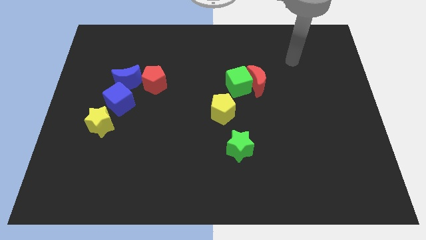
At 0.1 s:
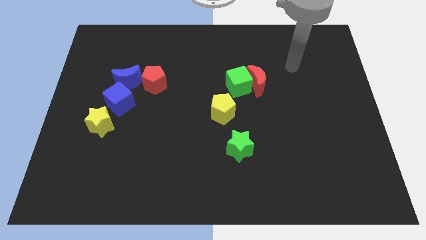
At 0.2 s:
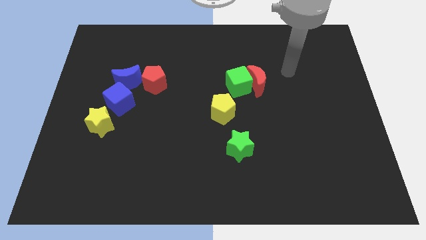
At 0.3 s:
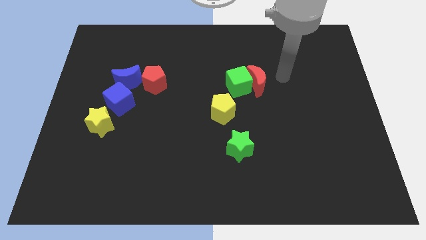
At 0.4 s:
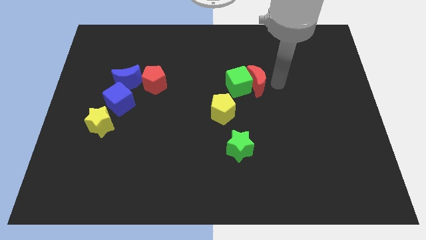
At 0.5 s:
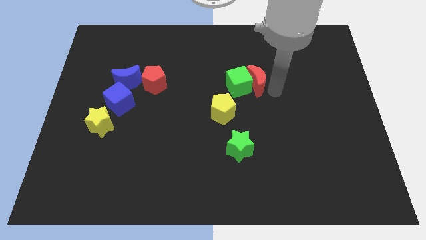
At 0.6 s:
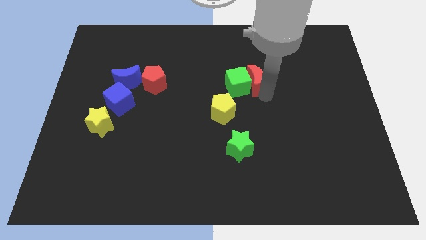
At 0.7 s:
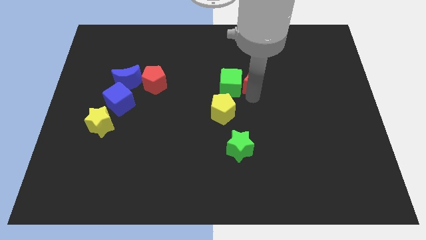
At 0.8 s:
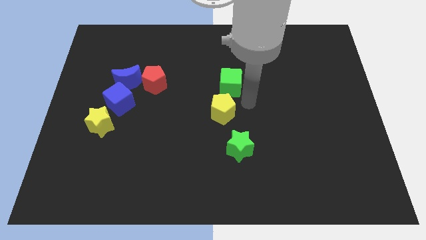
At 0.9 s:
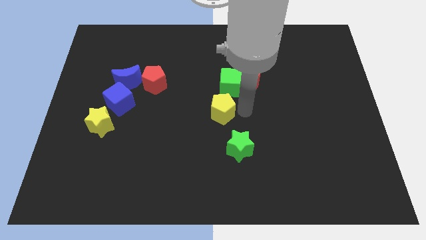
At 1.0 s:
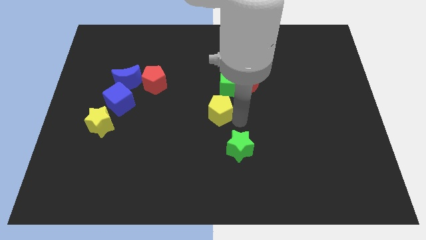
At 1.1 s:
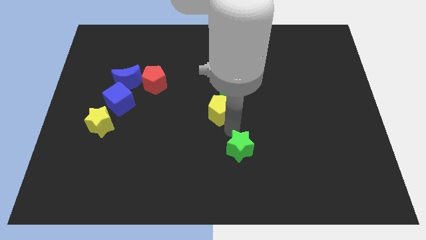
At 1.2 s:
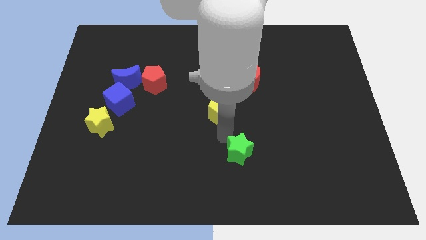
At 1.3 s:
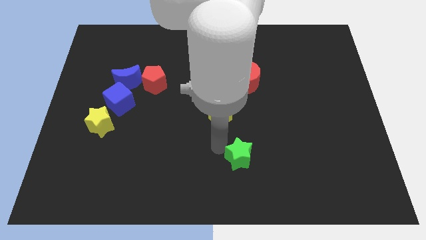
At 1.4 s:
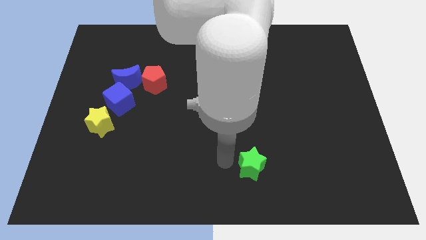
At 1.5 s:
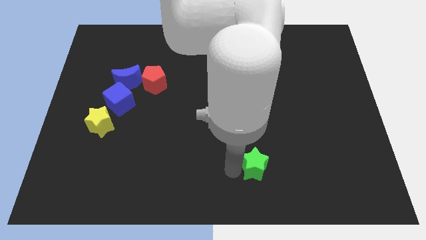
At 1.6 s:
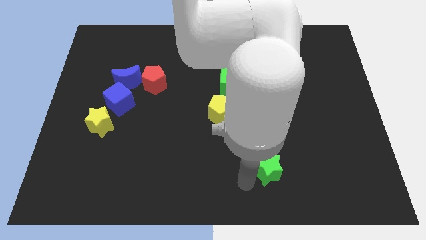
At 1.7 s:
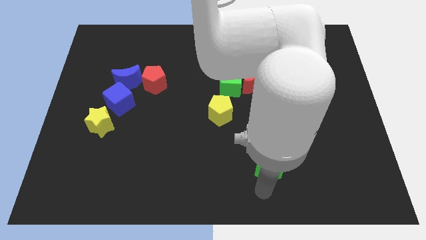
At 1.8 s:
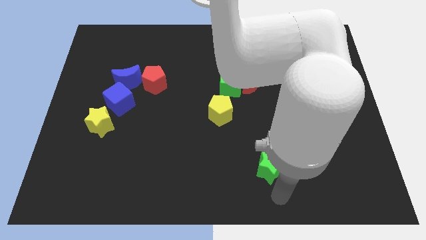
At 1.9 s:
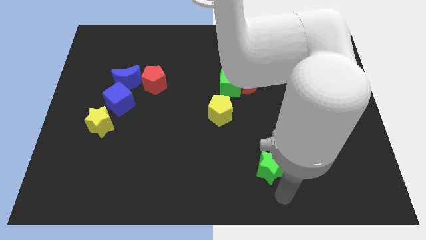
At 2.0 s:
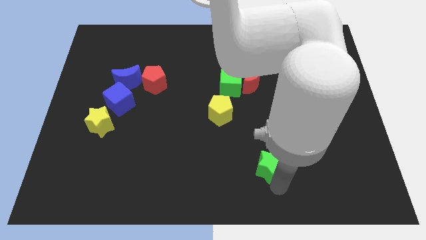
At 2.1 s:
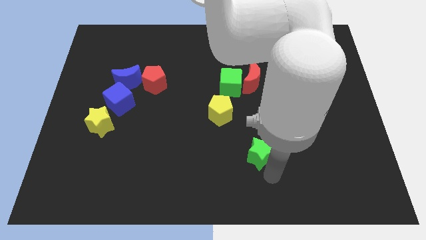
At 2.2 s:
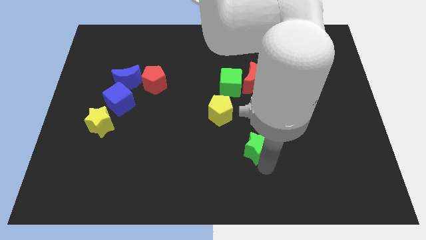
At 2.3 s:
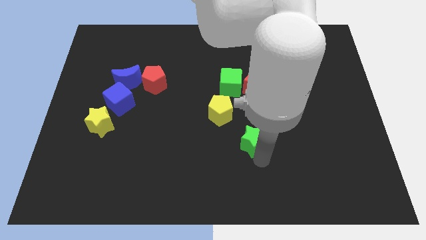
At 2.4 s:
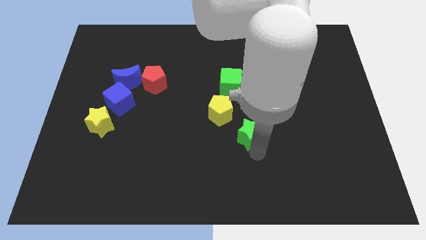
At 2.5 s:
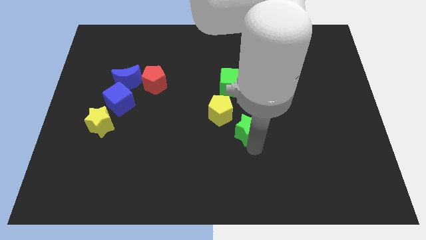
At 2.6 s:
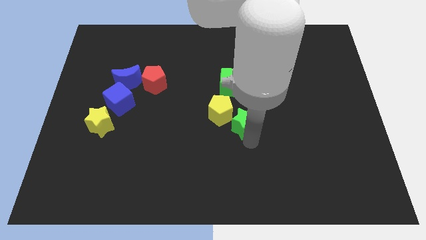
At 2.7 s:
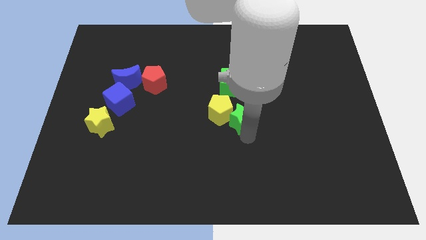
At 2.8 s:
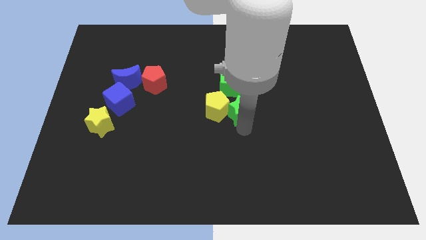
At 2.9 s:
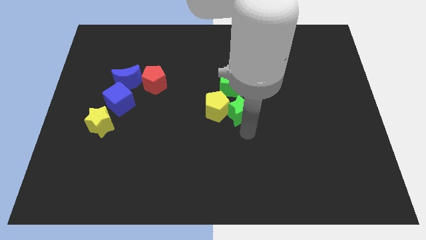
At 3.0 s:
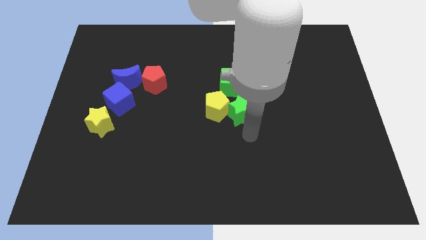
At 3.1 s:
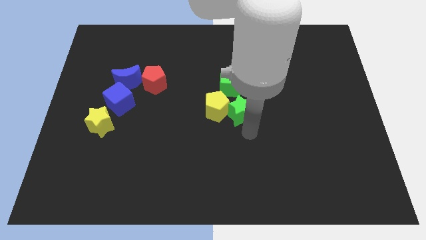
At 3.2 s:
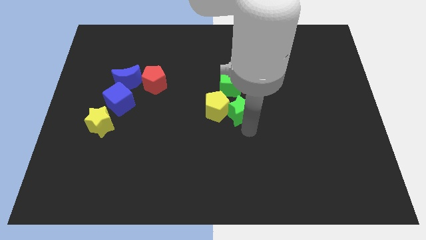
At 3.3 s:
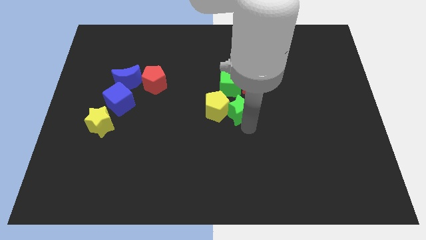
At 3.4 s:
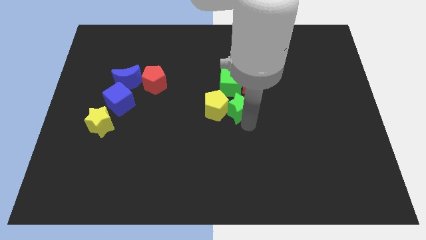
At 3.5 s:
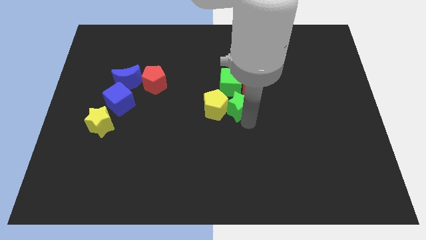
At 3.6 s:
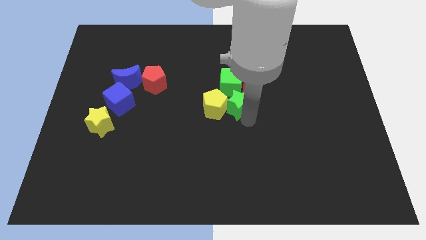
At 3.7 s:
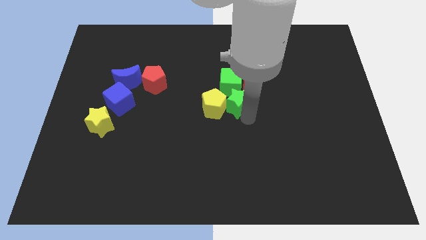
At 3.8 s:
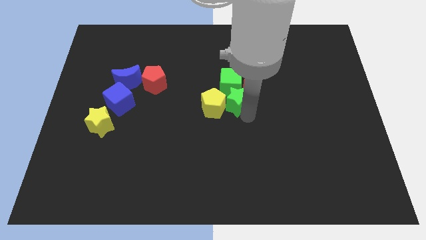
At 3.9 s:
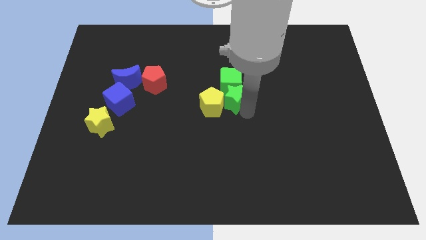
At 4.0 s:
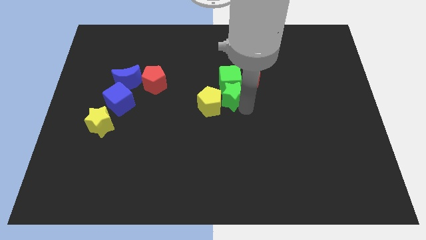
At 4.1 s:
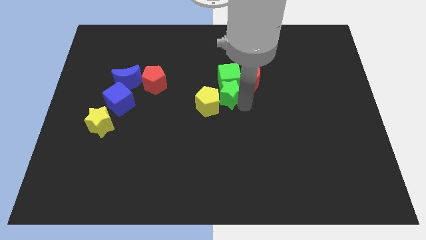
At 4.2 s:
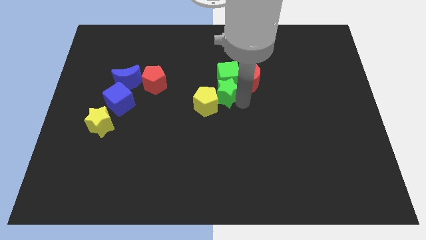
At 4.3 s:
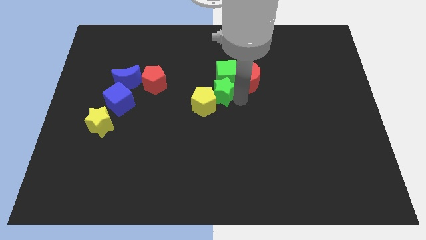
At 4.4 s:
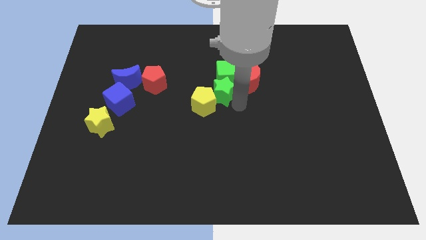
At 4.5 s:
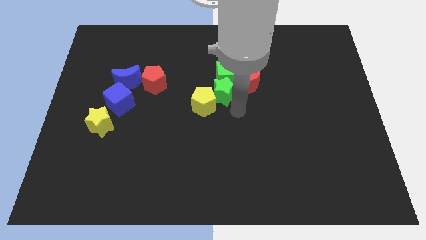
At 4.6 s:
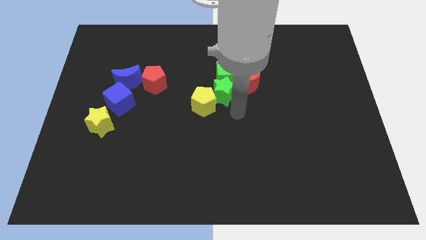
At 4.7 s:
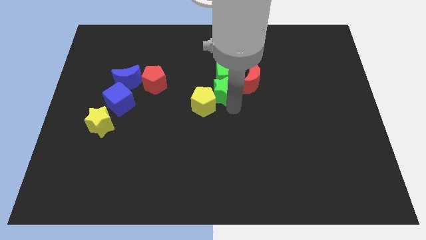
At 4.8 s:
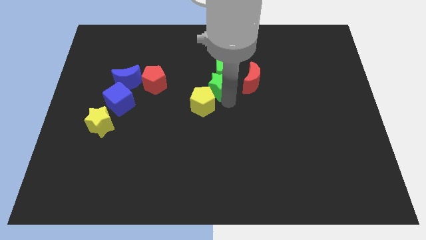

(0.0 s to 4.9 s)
slide the green star to the top side of the yellow pentagon

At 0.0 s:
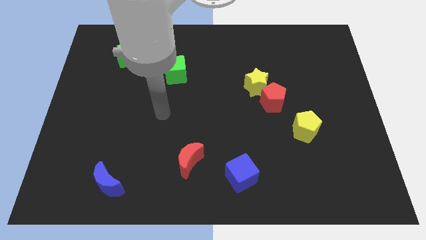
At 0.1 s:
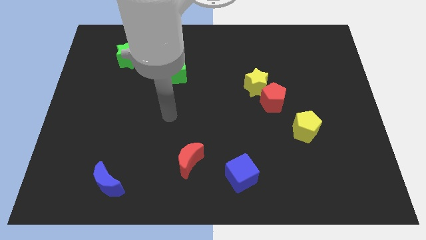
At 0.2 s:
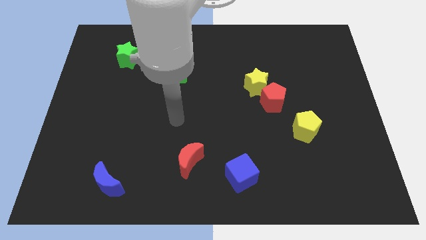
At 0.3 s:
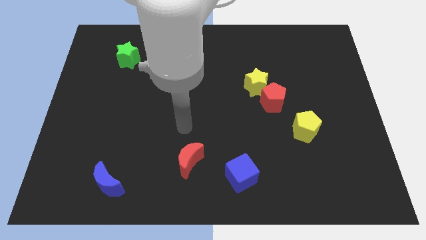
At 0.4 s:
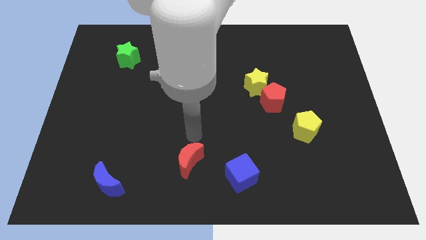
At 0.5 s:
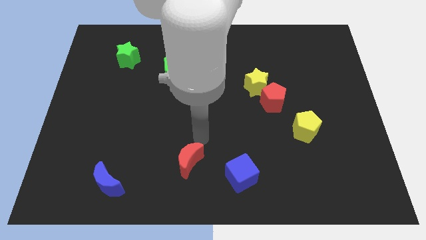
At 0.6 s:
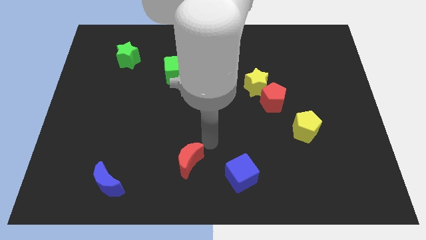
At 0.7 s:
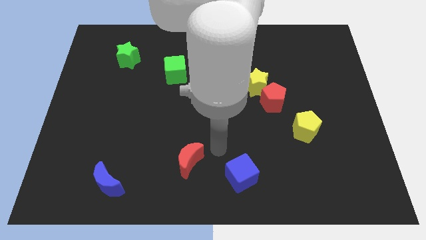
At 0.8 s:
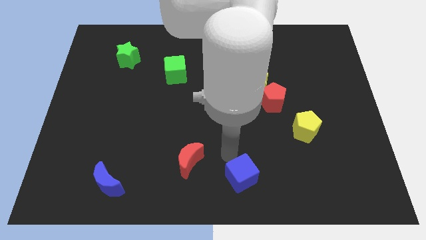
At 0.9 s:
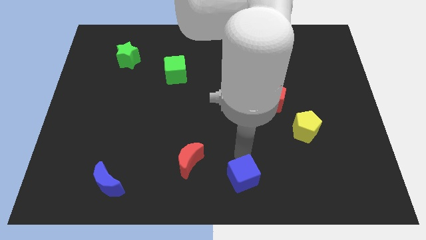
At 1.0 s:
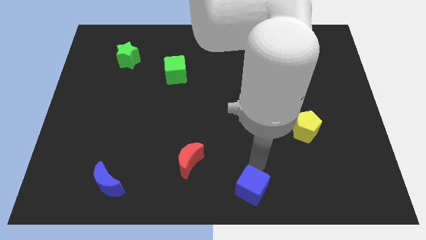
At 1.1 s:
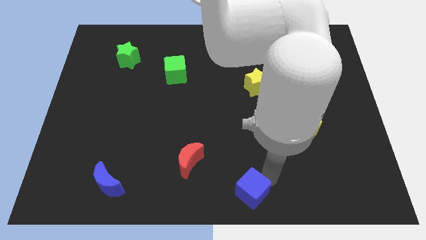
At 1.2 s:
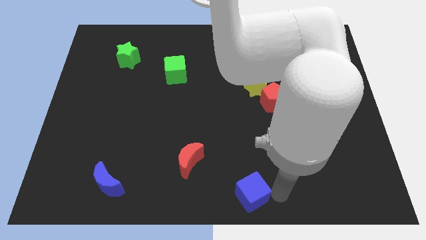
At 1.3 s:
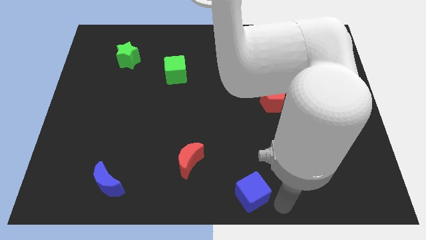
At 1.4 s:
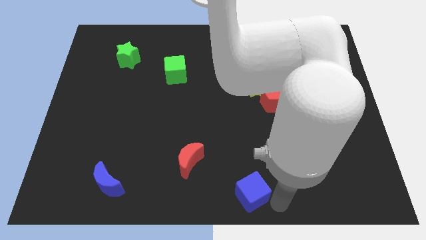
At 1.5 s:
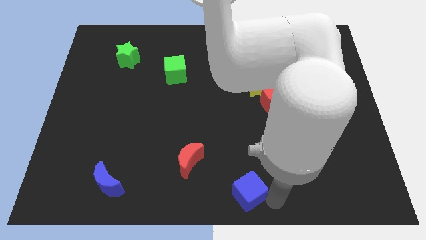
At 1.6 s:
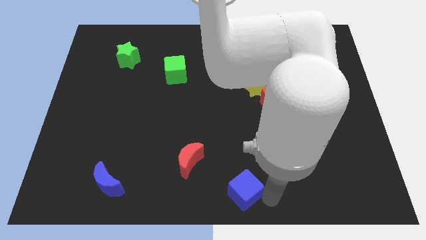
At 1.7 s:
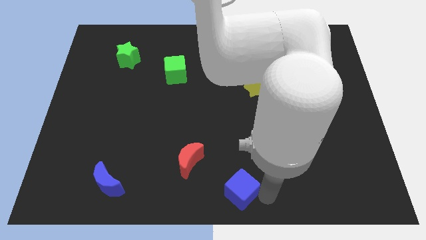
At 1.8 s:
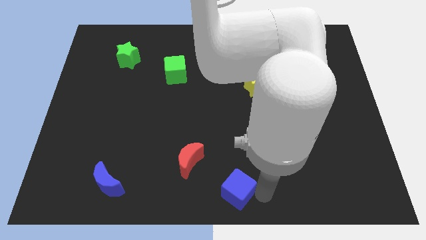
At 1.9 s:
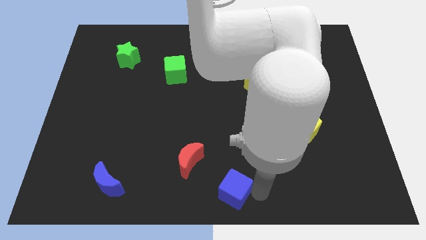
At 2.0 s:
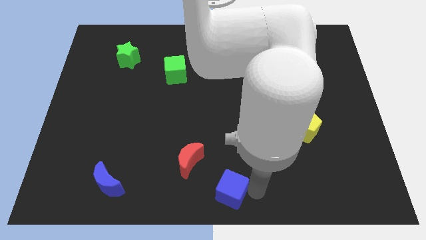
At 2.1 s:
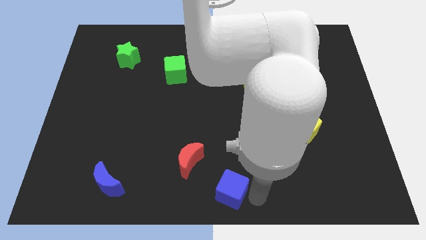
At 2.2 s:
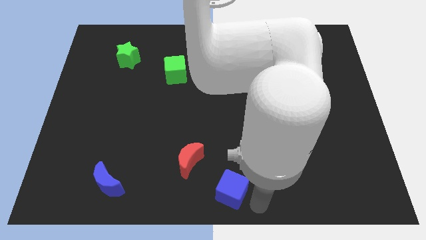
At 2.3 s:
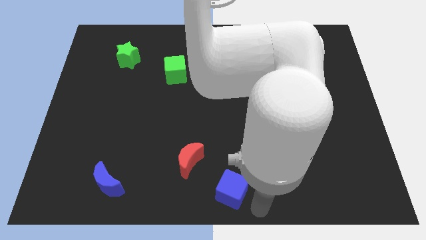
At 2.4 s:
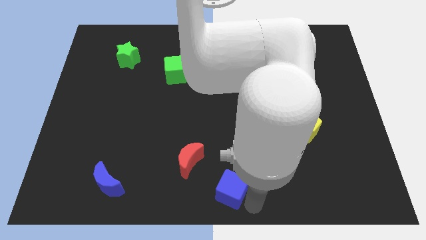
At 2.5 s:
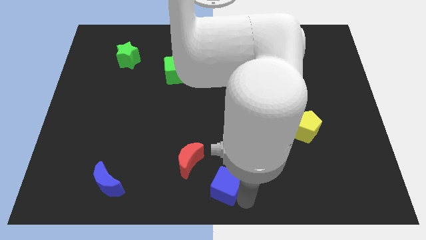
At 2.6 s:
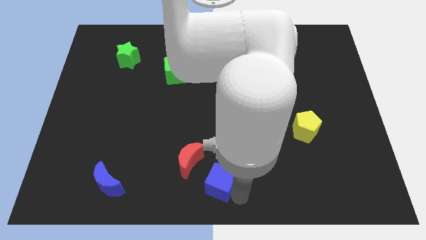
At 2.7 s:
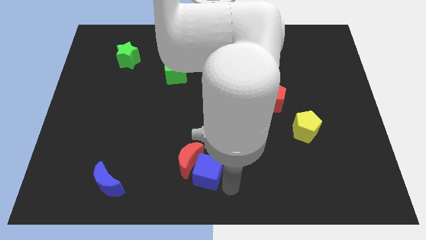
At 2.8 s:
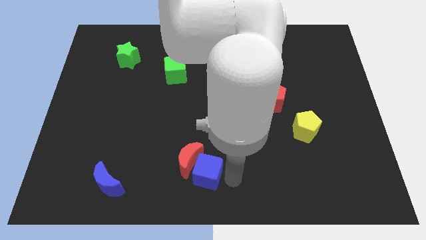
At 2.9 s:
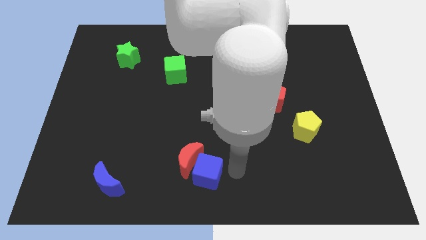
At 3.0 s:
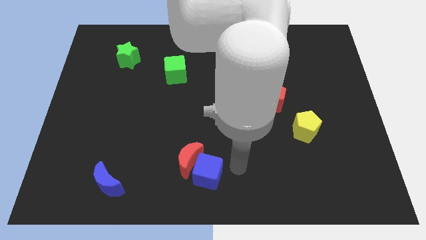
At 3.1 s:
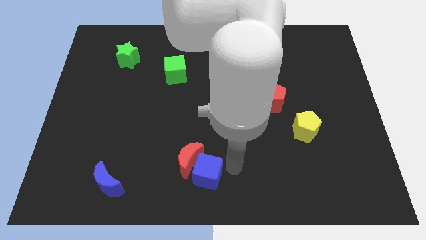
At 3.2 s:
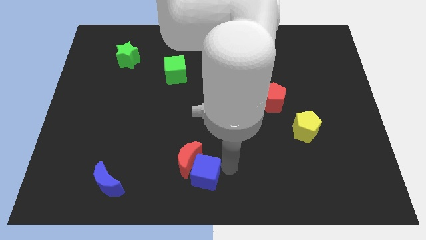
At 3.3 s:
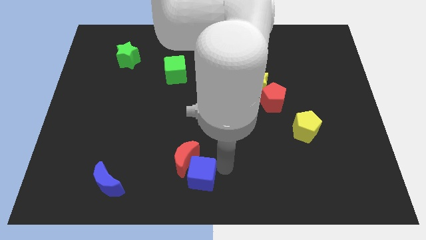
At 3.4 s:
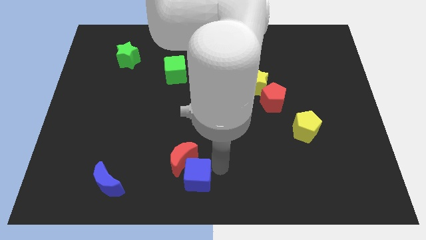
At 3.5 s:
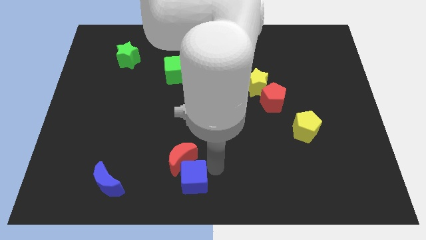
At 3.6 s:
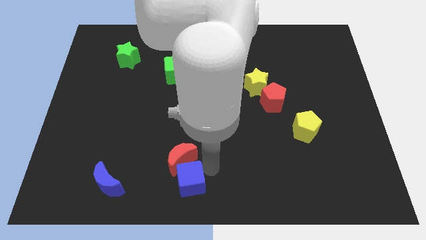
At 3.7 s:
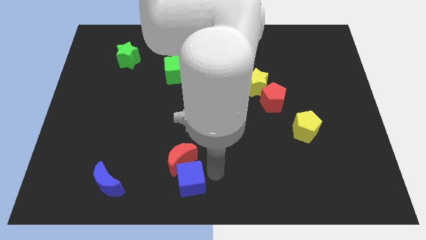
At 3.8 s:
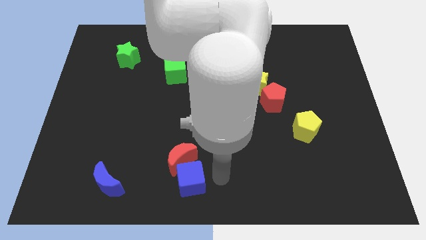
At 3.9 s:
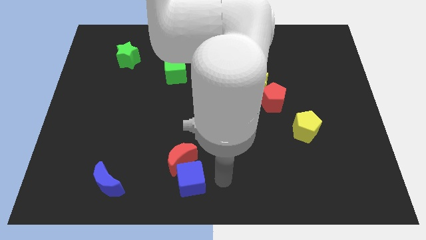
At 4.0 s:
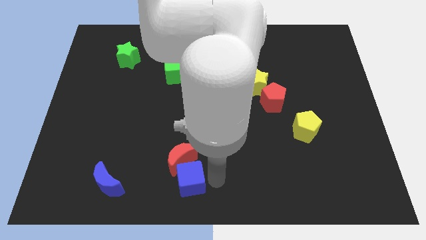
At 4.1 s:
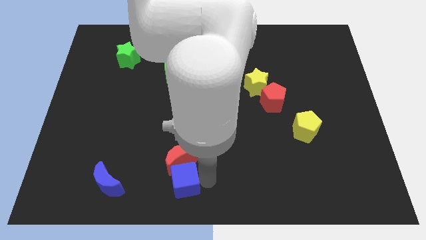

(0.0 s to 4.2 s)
move the blue cube to the bottom left side of the red moon
